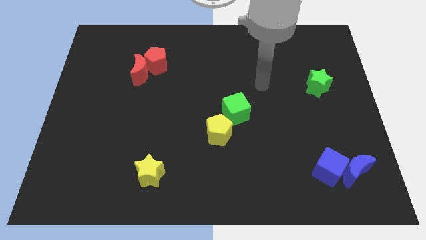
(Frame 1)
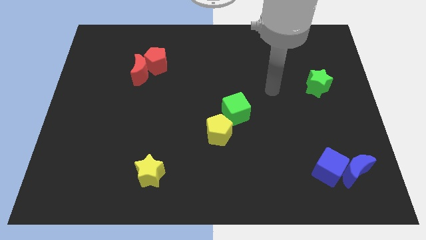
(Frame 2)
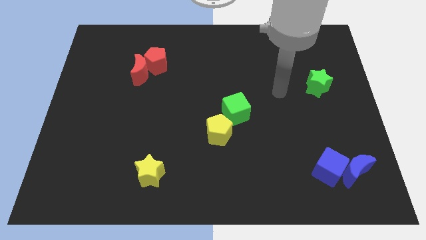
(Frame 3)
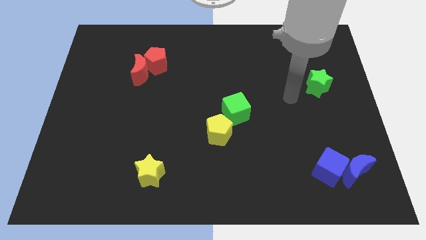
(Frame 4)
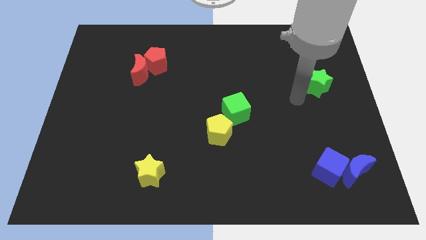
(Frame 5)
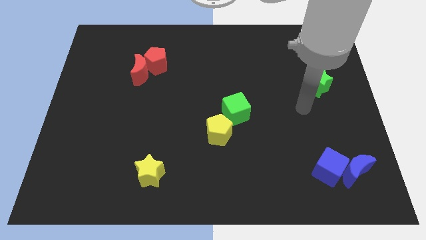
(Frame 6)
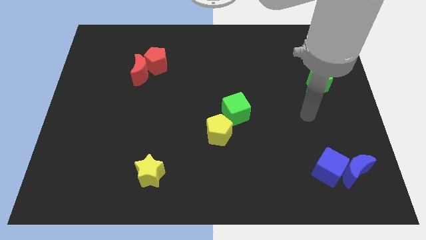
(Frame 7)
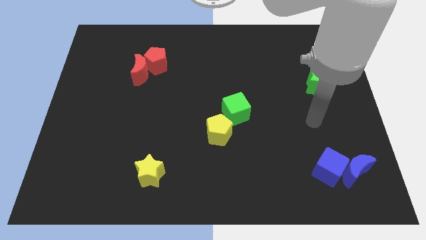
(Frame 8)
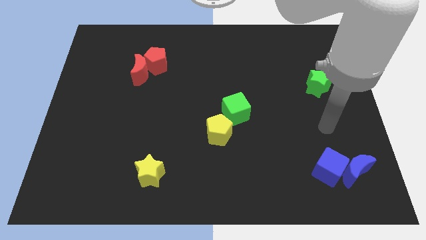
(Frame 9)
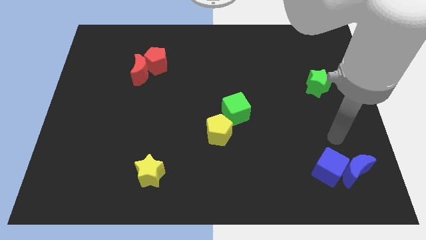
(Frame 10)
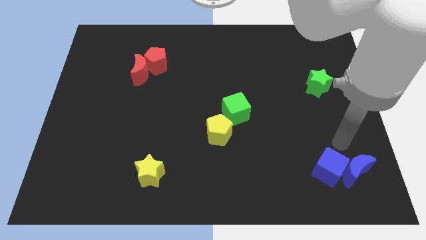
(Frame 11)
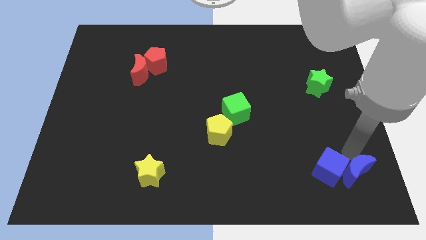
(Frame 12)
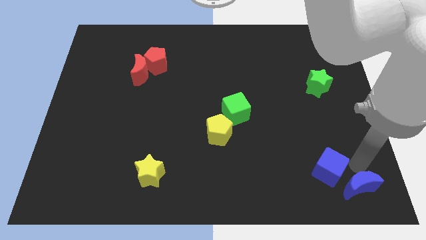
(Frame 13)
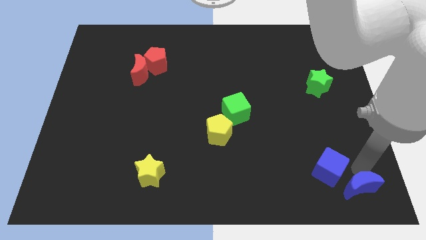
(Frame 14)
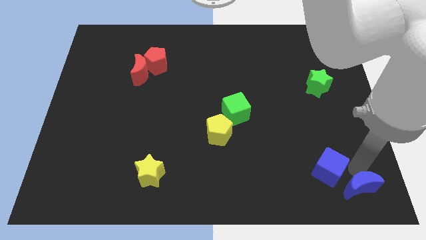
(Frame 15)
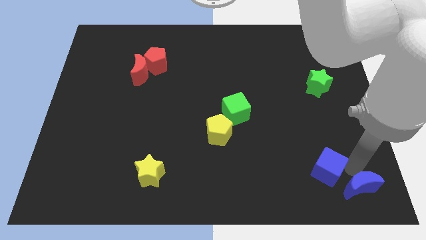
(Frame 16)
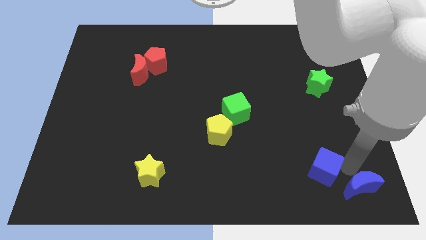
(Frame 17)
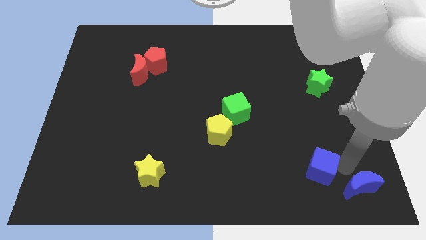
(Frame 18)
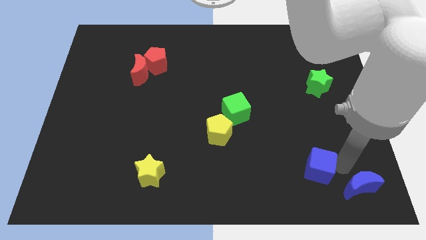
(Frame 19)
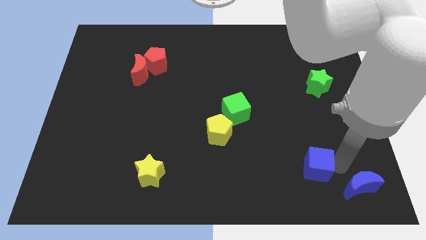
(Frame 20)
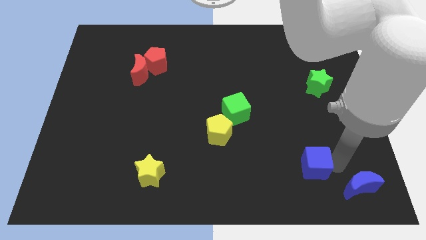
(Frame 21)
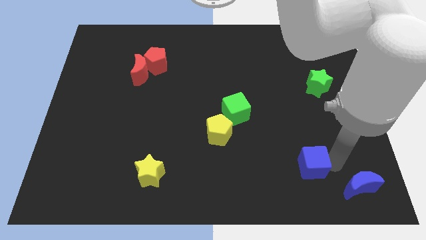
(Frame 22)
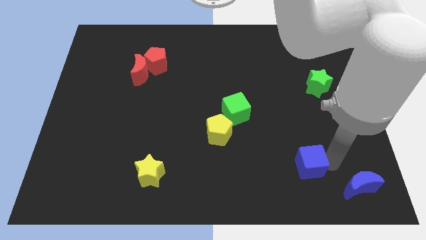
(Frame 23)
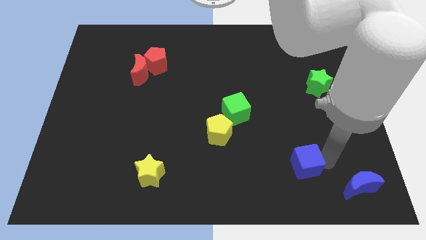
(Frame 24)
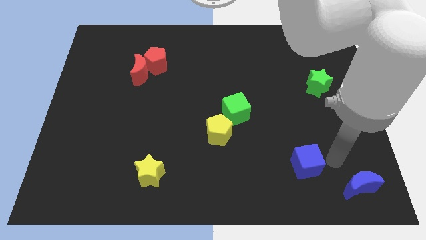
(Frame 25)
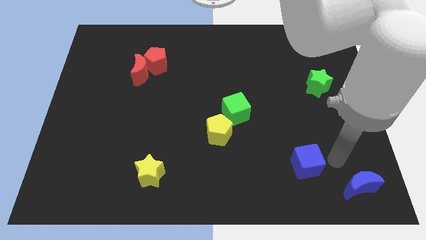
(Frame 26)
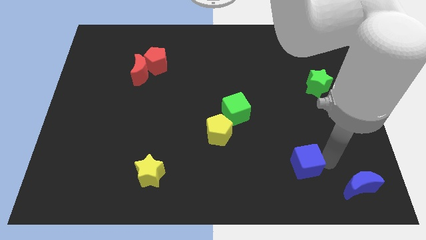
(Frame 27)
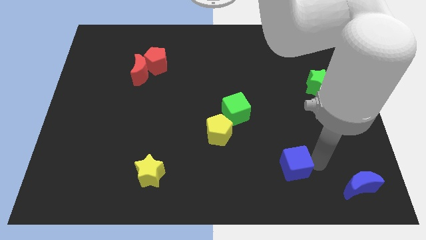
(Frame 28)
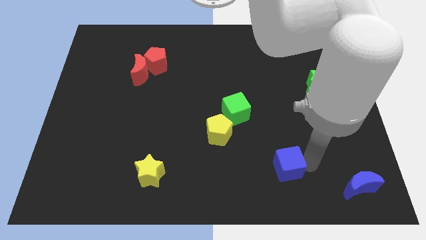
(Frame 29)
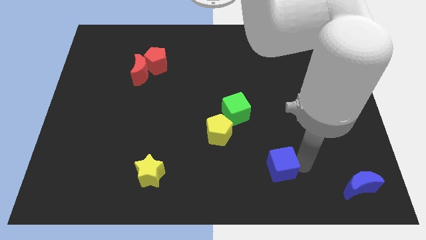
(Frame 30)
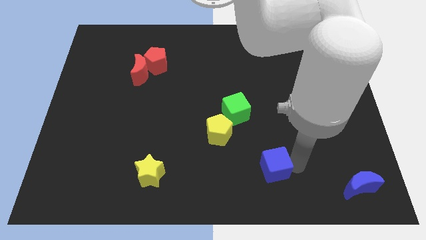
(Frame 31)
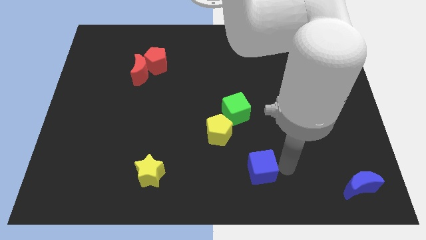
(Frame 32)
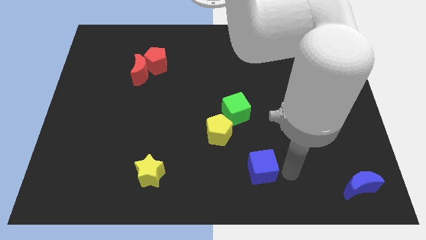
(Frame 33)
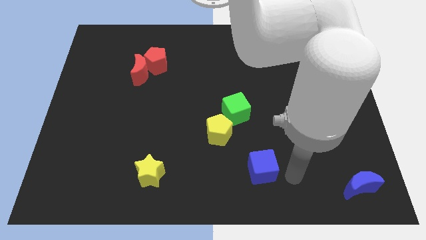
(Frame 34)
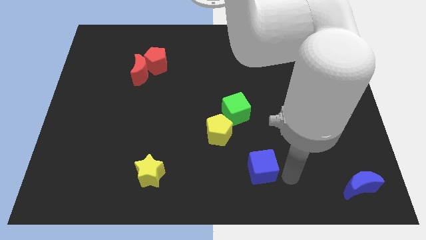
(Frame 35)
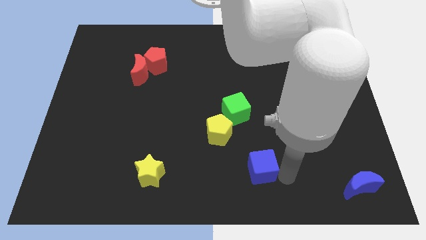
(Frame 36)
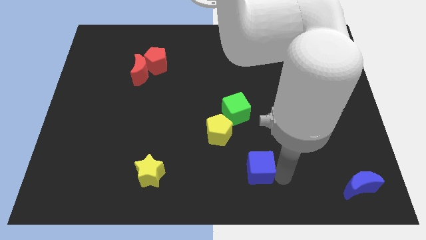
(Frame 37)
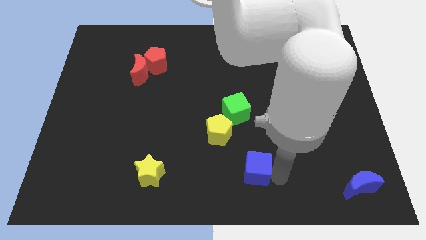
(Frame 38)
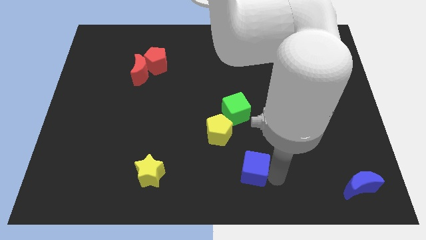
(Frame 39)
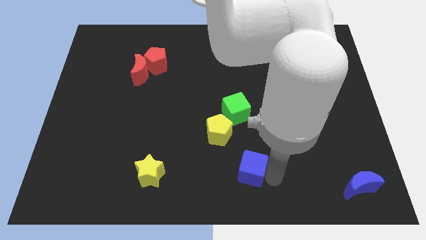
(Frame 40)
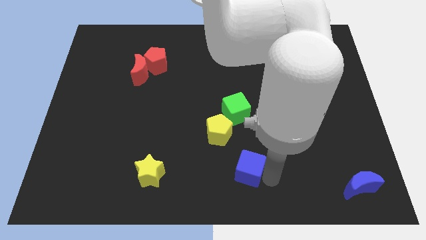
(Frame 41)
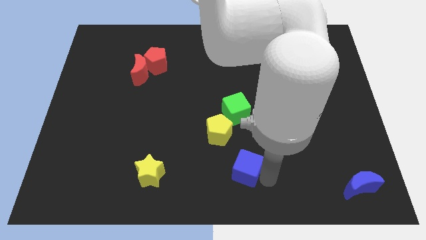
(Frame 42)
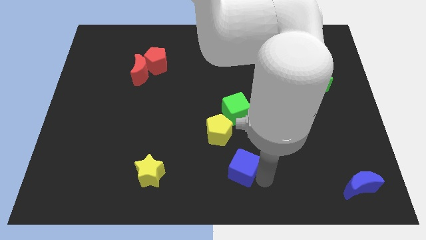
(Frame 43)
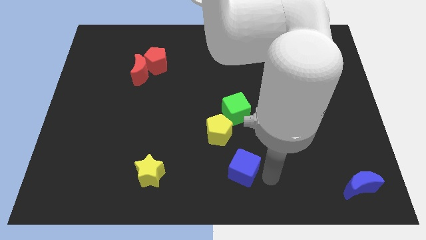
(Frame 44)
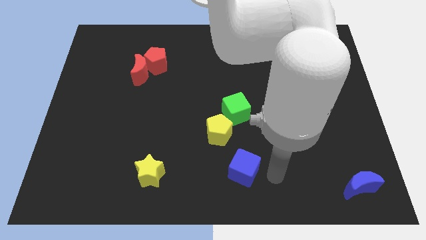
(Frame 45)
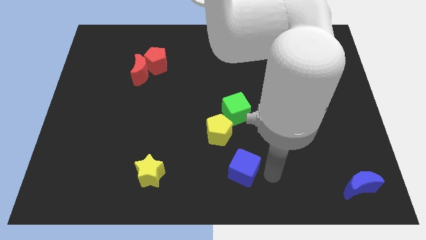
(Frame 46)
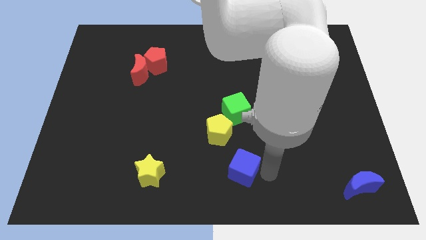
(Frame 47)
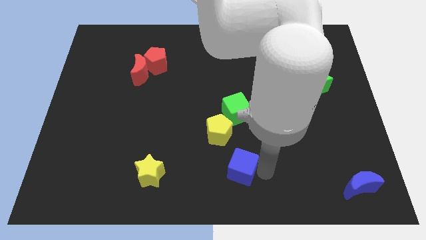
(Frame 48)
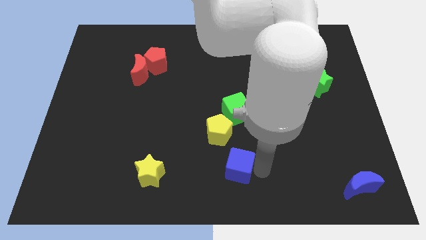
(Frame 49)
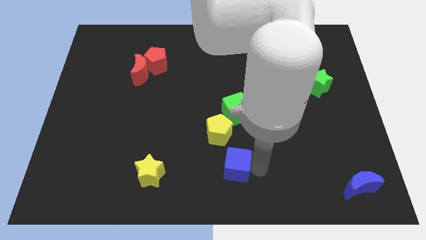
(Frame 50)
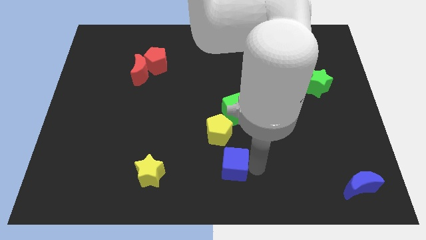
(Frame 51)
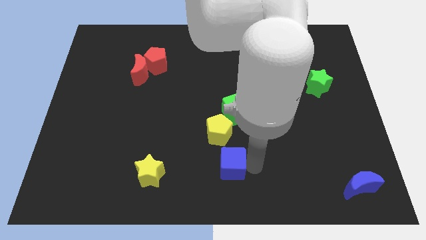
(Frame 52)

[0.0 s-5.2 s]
move the blue cube left

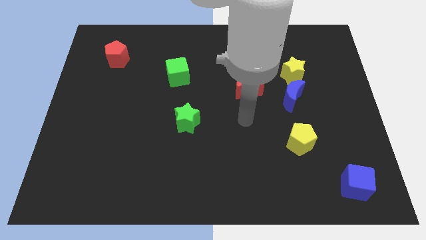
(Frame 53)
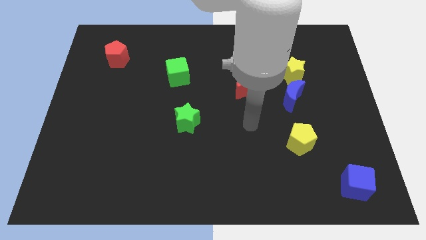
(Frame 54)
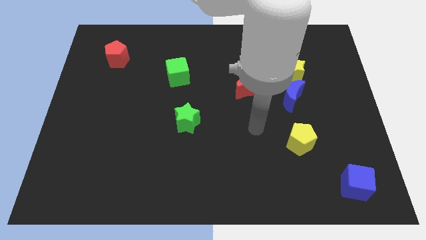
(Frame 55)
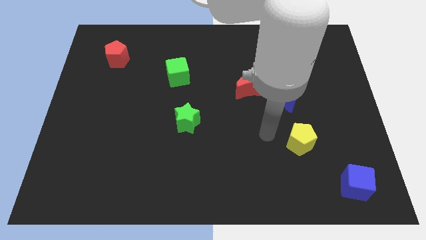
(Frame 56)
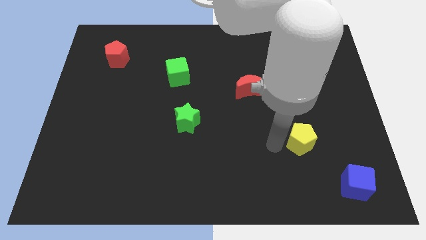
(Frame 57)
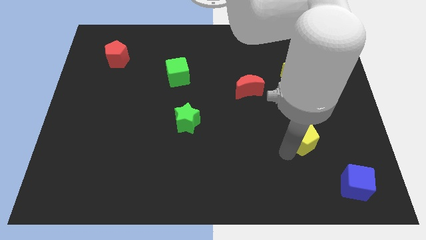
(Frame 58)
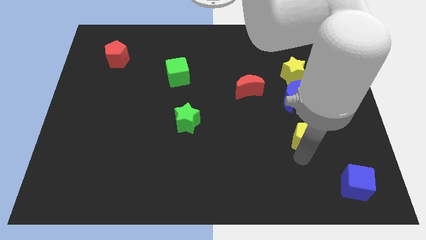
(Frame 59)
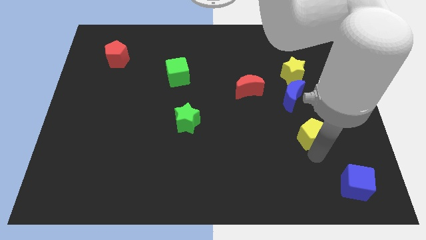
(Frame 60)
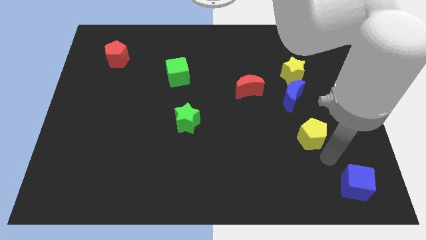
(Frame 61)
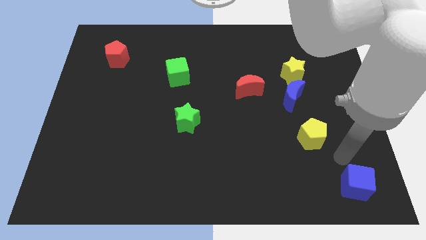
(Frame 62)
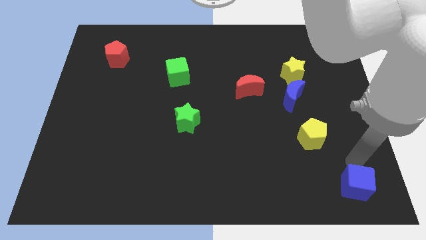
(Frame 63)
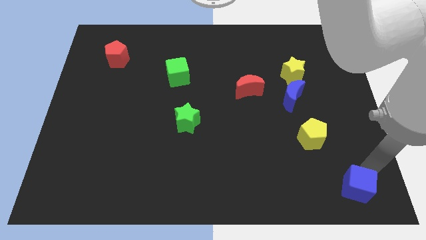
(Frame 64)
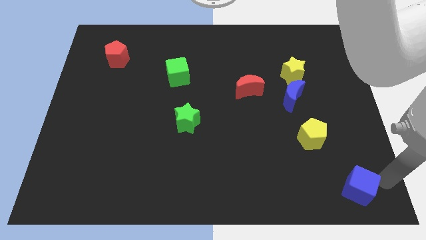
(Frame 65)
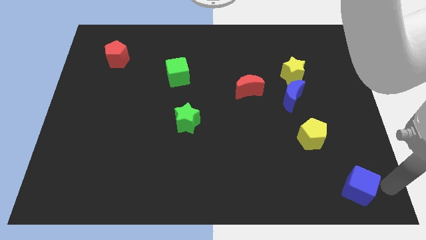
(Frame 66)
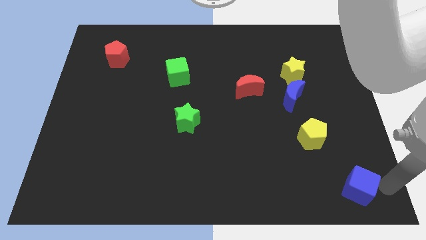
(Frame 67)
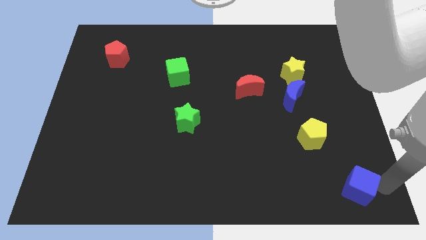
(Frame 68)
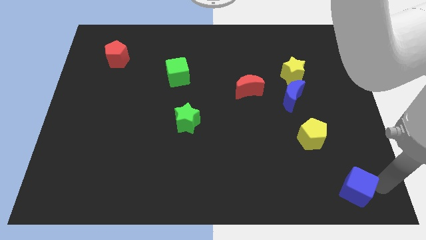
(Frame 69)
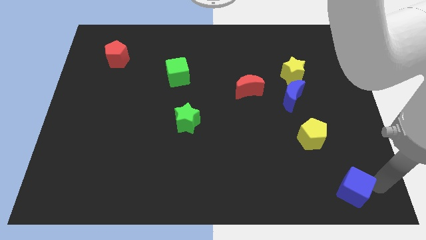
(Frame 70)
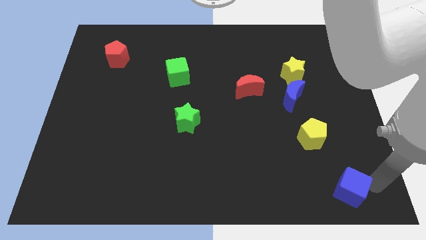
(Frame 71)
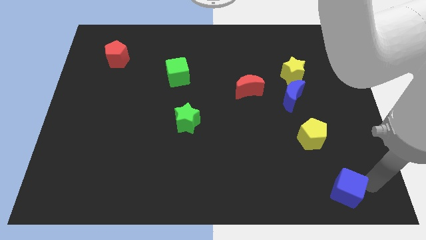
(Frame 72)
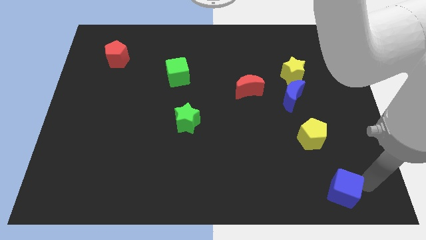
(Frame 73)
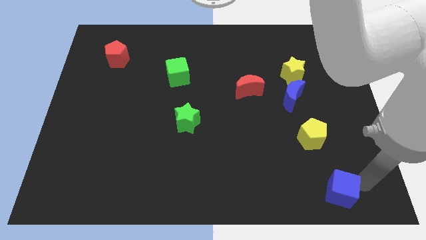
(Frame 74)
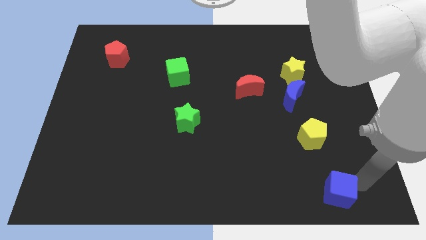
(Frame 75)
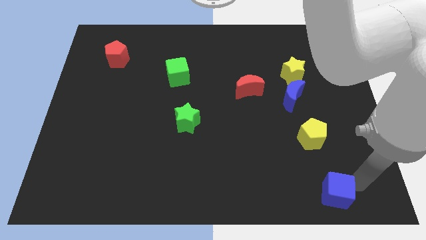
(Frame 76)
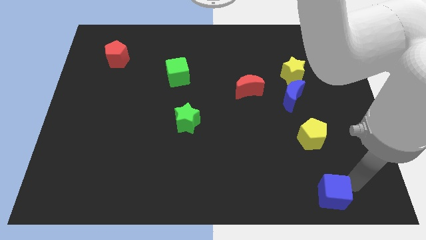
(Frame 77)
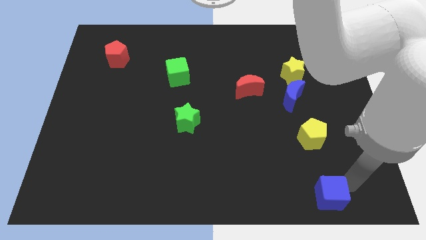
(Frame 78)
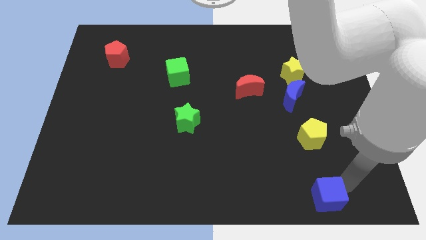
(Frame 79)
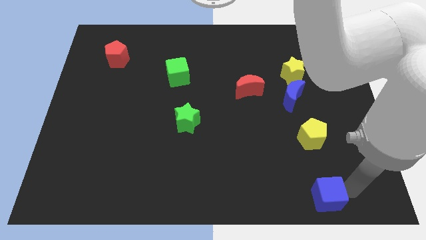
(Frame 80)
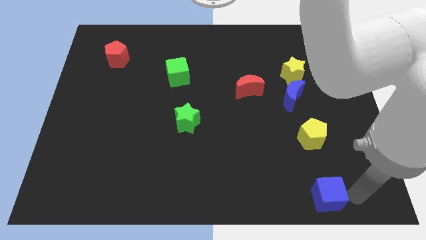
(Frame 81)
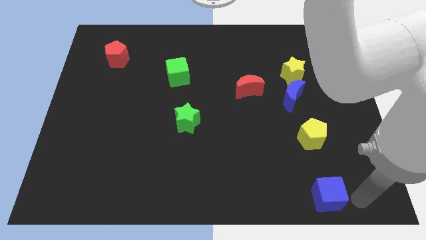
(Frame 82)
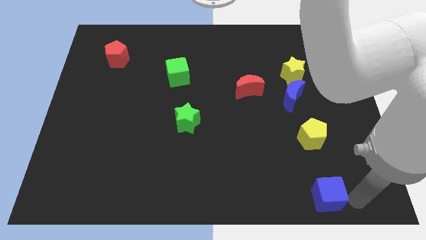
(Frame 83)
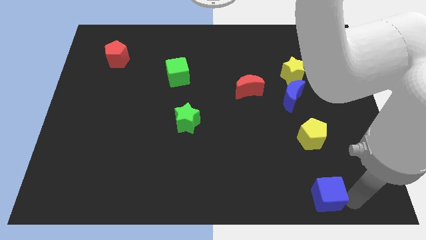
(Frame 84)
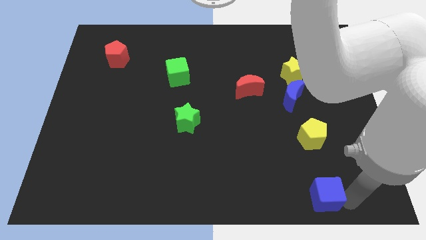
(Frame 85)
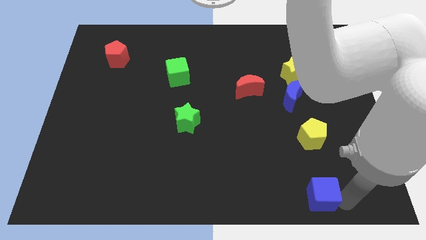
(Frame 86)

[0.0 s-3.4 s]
slightly slide the blue cube left
